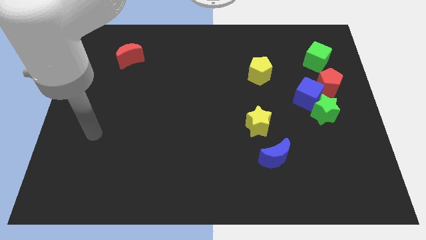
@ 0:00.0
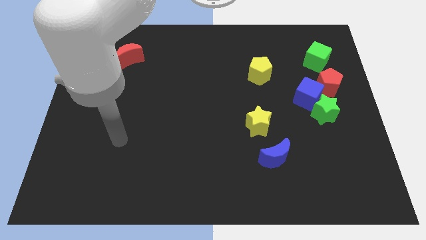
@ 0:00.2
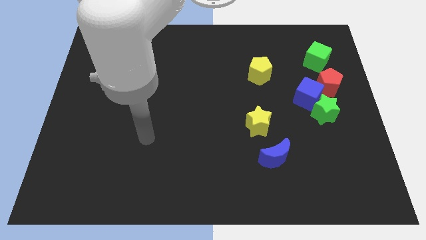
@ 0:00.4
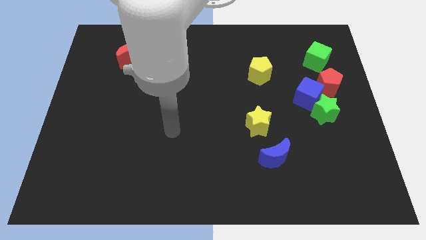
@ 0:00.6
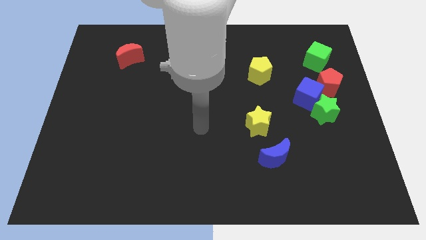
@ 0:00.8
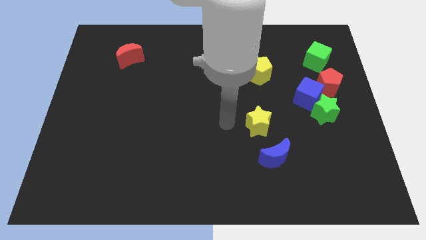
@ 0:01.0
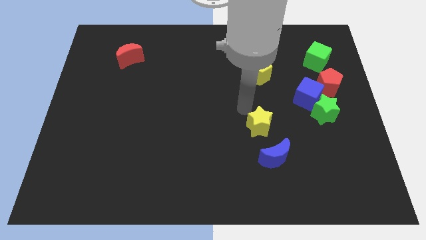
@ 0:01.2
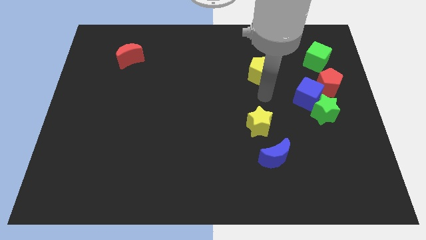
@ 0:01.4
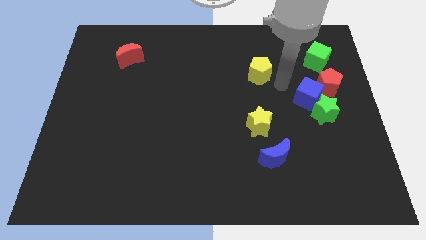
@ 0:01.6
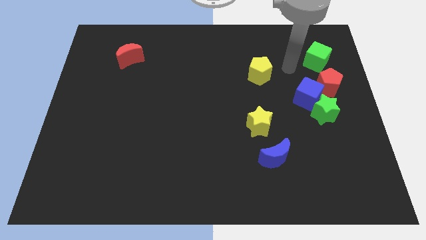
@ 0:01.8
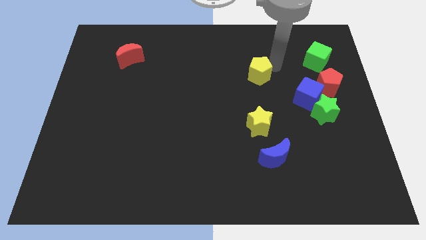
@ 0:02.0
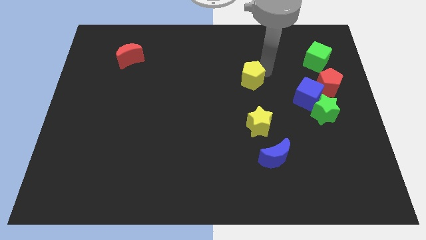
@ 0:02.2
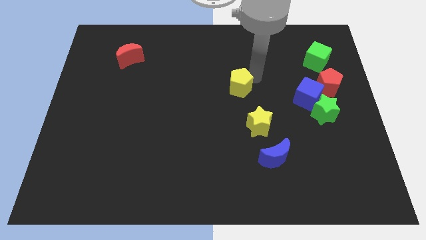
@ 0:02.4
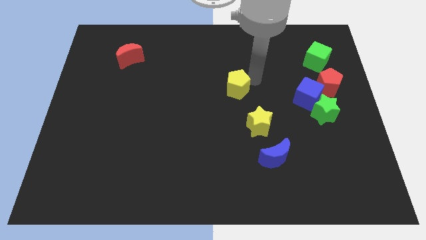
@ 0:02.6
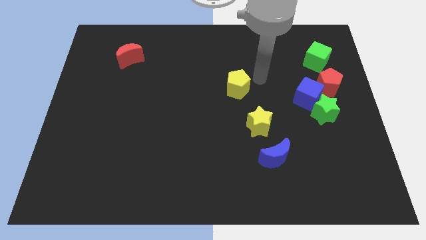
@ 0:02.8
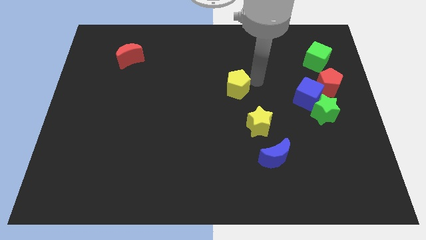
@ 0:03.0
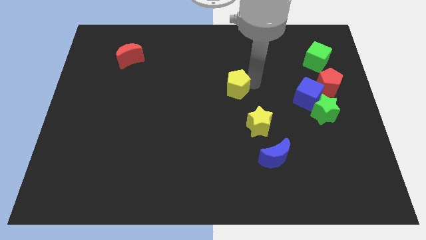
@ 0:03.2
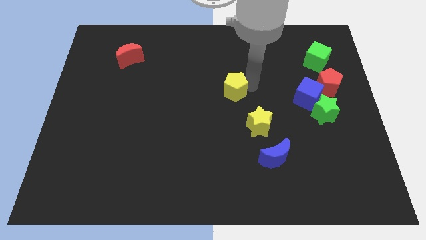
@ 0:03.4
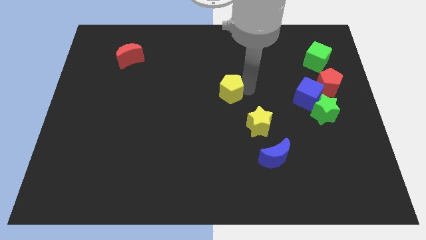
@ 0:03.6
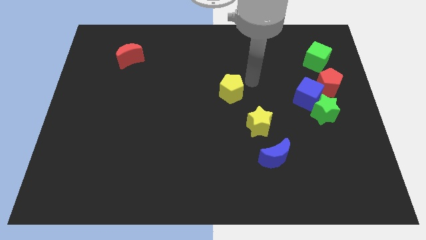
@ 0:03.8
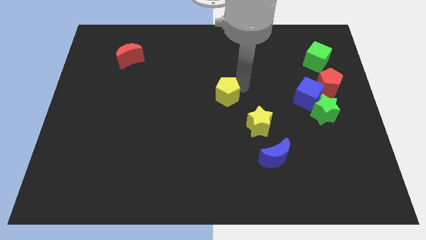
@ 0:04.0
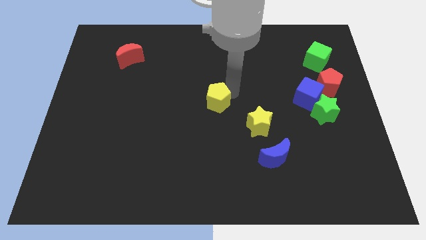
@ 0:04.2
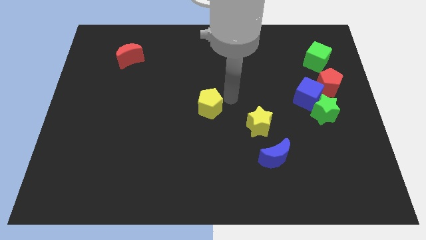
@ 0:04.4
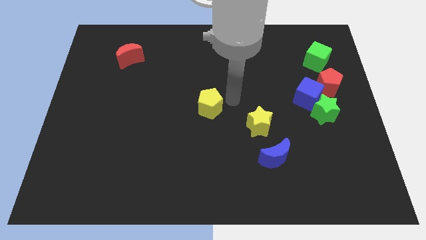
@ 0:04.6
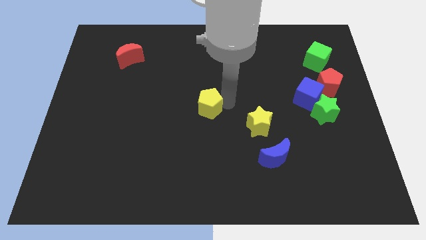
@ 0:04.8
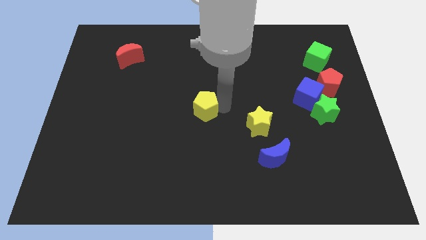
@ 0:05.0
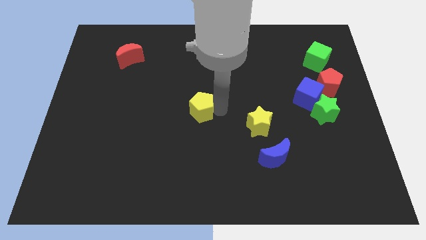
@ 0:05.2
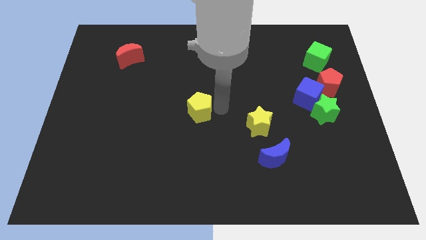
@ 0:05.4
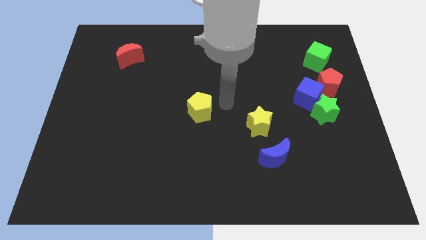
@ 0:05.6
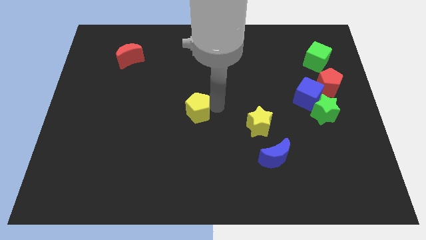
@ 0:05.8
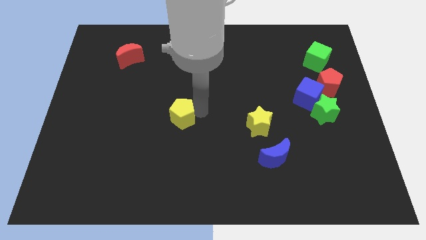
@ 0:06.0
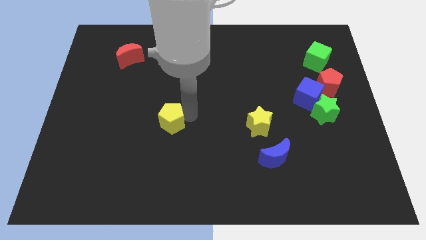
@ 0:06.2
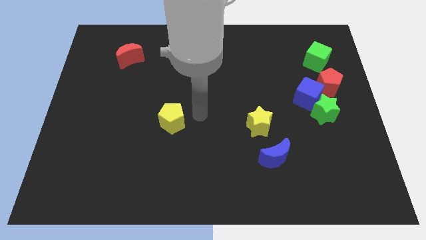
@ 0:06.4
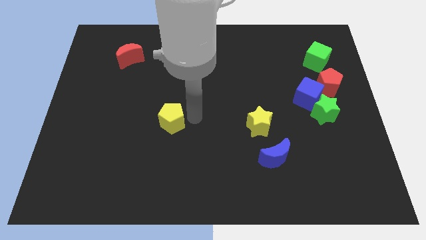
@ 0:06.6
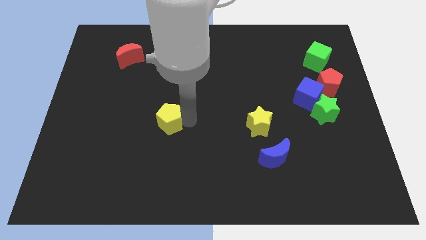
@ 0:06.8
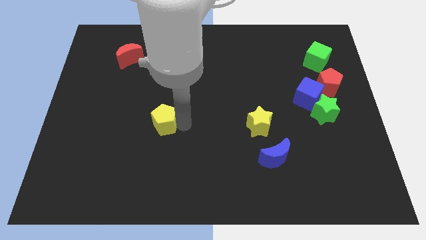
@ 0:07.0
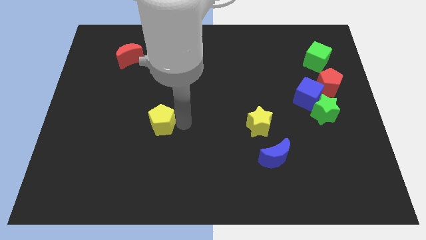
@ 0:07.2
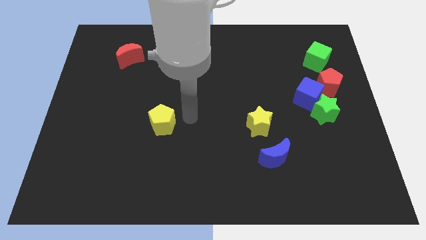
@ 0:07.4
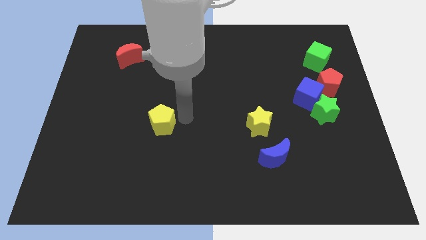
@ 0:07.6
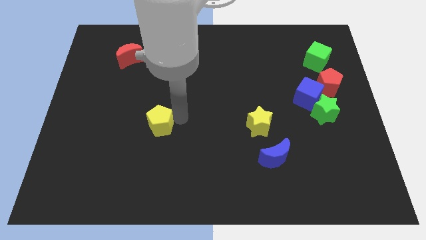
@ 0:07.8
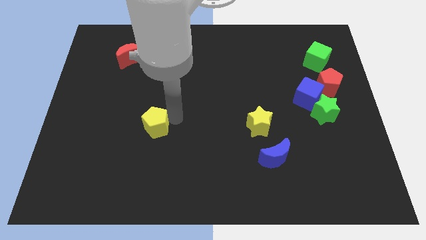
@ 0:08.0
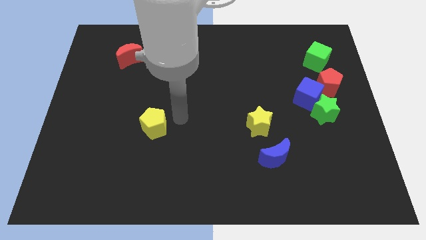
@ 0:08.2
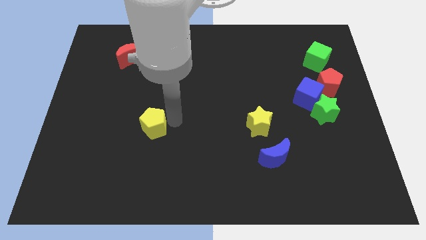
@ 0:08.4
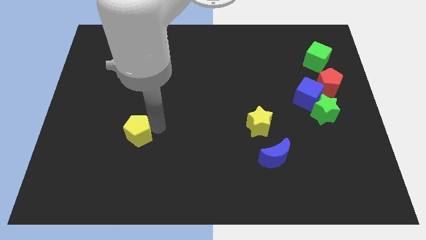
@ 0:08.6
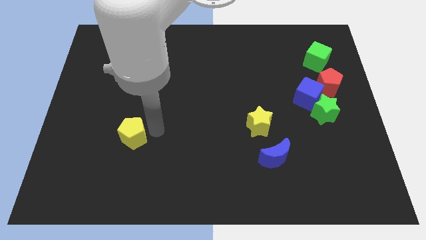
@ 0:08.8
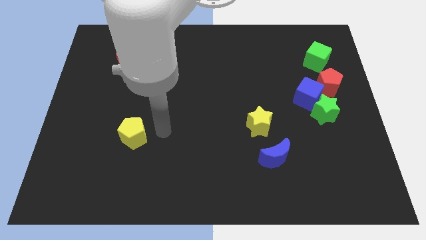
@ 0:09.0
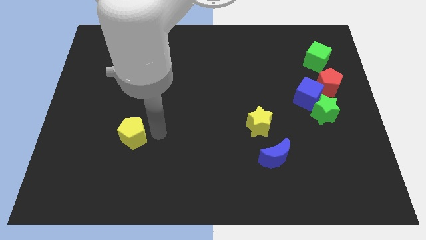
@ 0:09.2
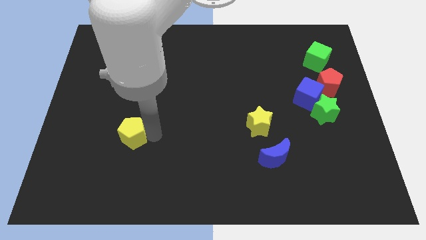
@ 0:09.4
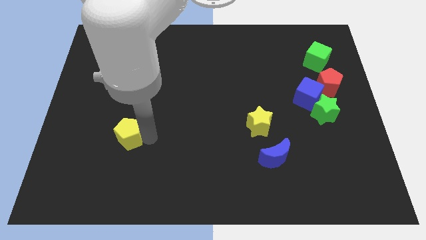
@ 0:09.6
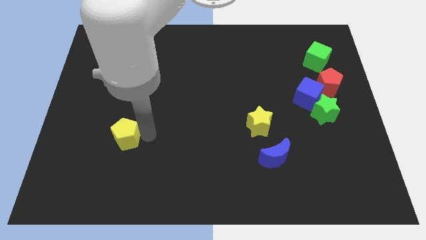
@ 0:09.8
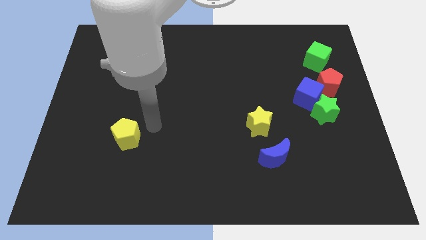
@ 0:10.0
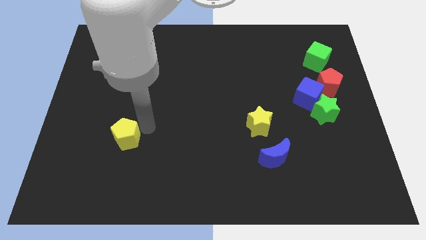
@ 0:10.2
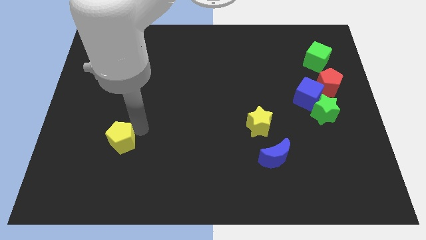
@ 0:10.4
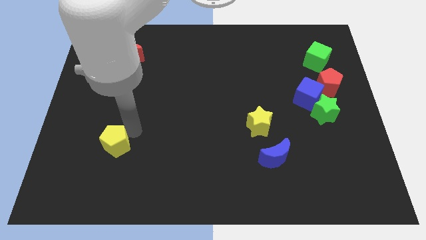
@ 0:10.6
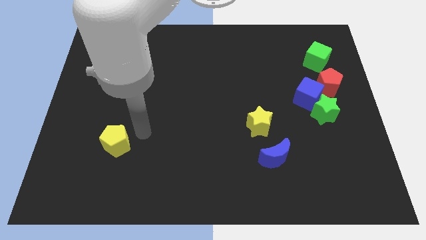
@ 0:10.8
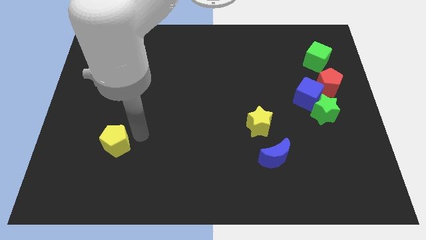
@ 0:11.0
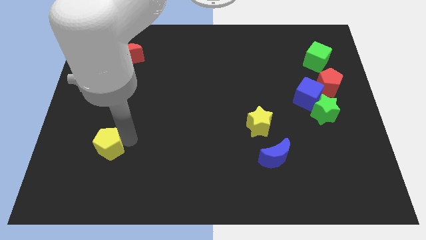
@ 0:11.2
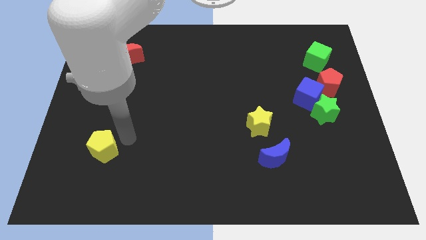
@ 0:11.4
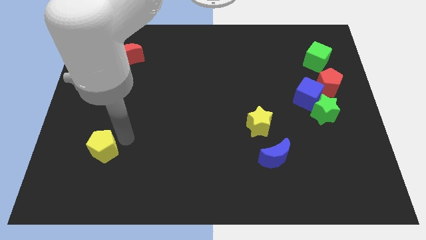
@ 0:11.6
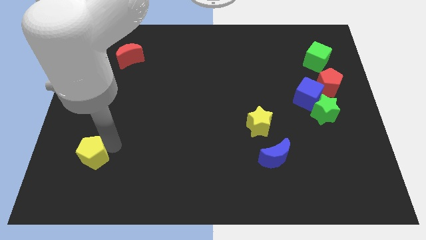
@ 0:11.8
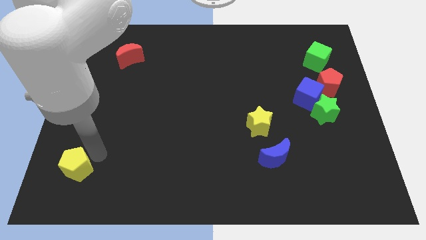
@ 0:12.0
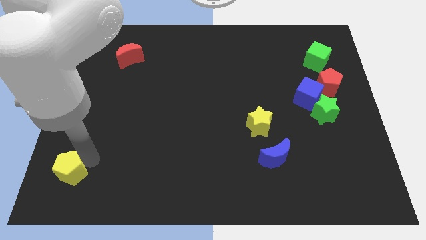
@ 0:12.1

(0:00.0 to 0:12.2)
put the yellow pentagon to the bottom left corner

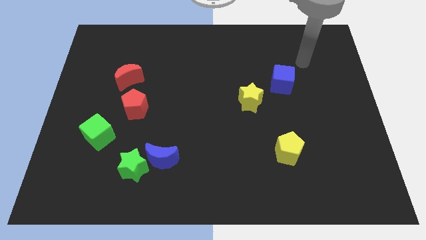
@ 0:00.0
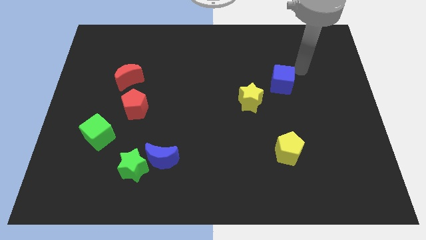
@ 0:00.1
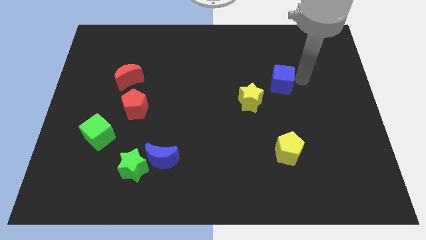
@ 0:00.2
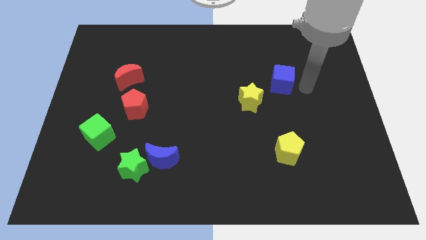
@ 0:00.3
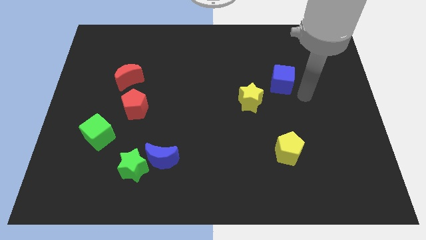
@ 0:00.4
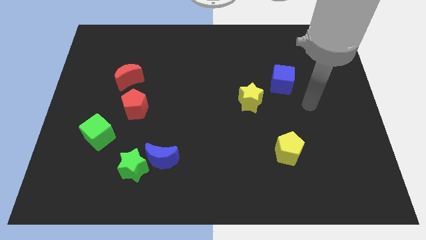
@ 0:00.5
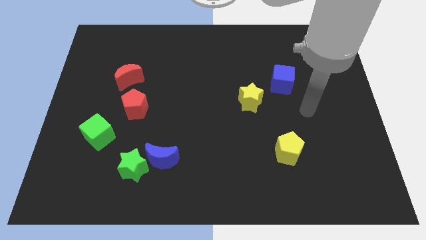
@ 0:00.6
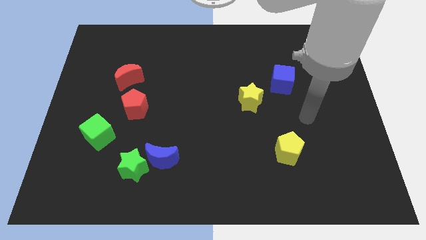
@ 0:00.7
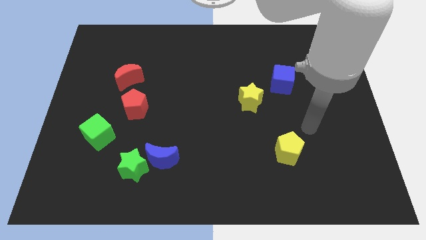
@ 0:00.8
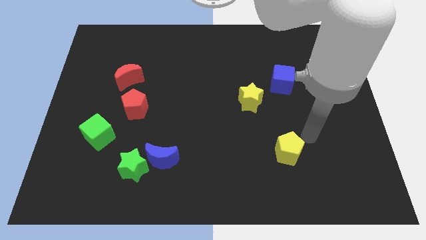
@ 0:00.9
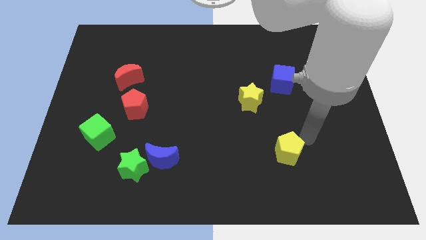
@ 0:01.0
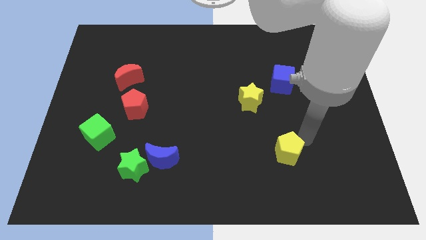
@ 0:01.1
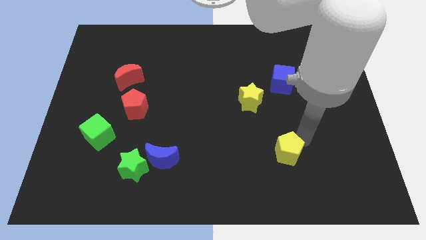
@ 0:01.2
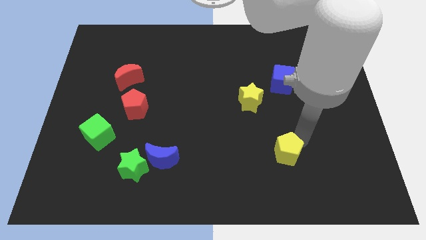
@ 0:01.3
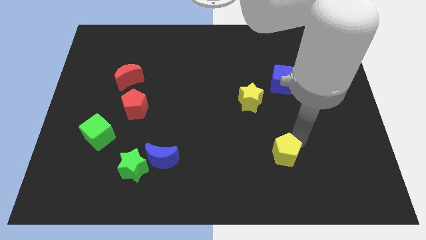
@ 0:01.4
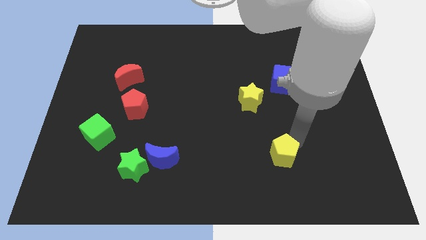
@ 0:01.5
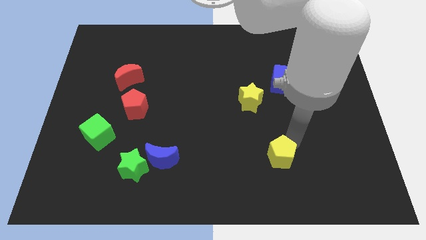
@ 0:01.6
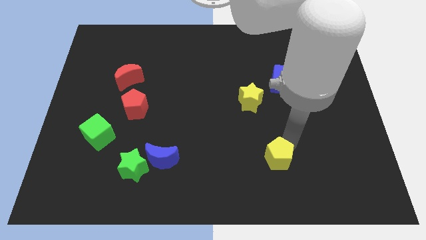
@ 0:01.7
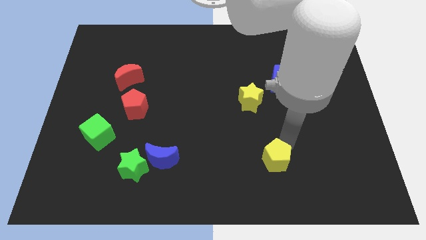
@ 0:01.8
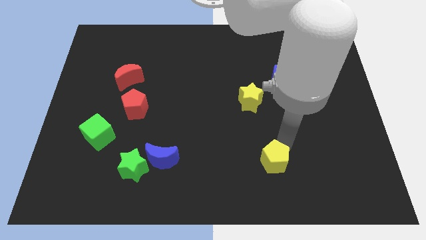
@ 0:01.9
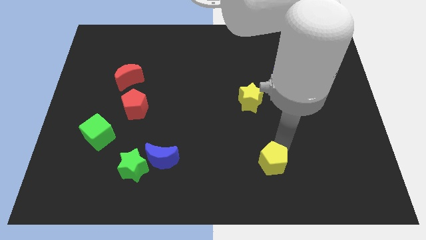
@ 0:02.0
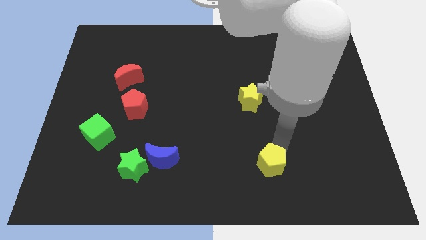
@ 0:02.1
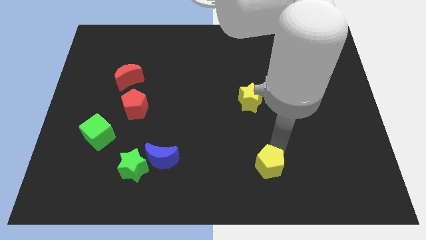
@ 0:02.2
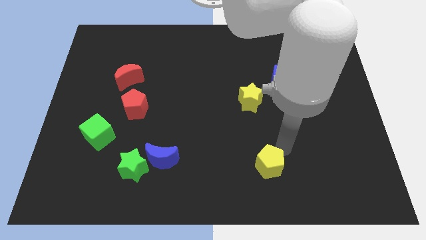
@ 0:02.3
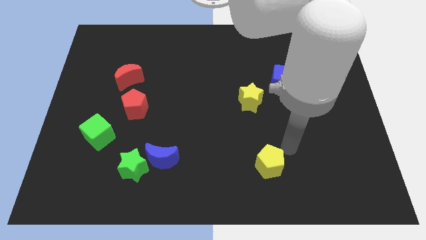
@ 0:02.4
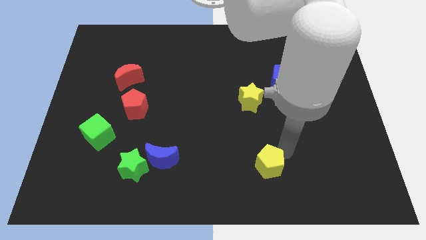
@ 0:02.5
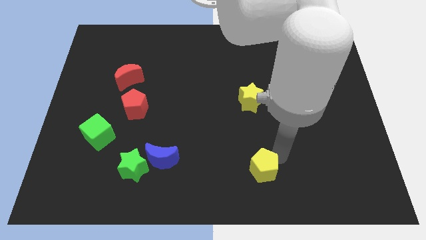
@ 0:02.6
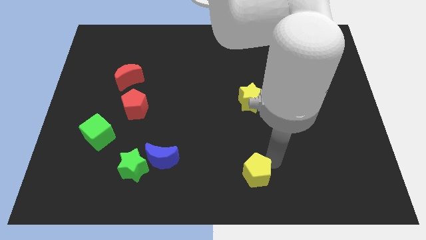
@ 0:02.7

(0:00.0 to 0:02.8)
slide the yellow pentagon to the bottom side
